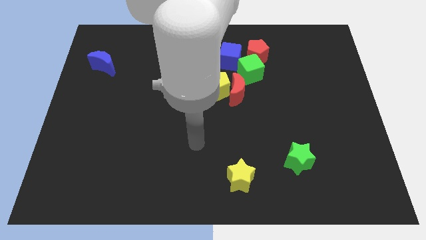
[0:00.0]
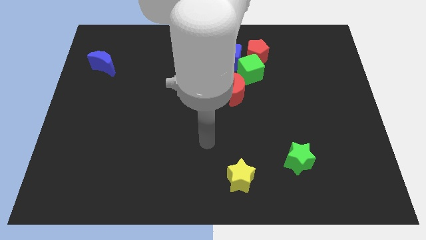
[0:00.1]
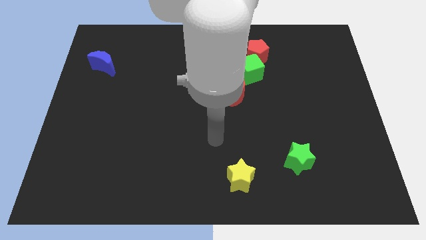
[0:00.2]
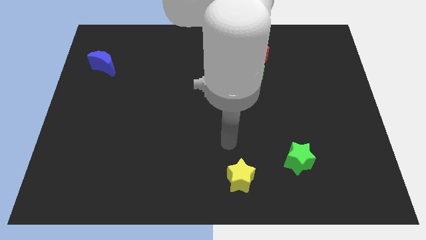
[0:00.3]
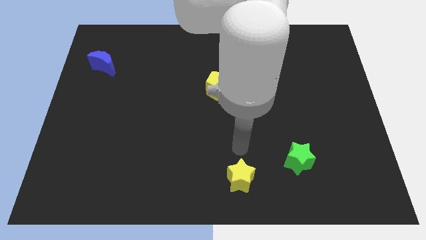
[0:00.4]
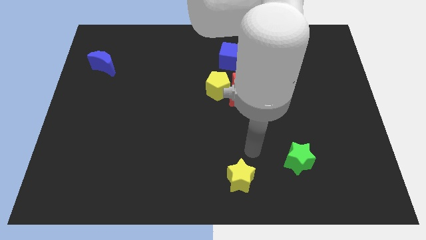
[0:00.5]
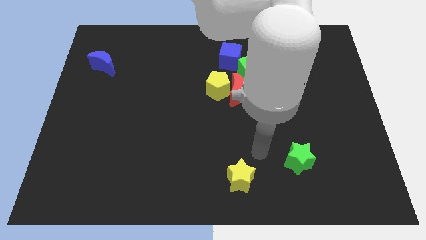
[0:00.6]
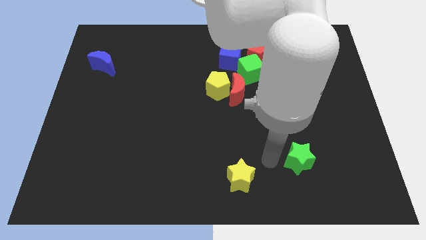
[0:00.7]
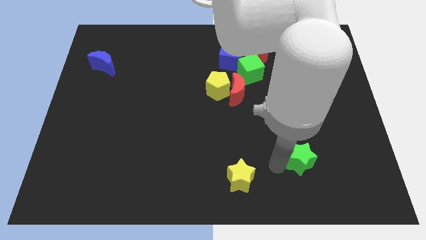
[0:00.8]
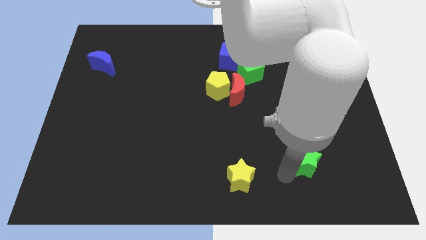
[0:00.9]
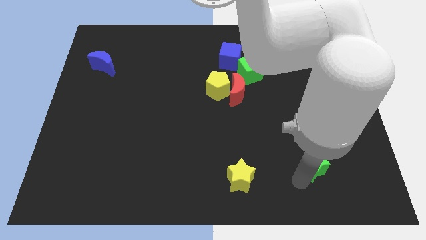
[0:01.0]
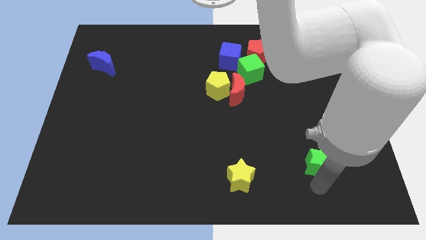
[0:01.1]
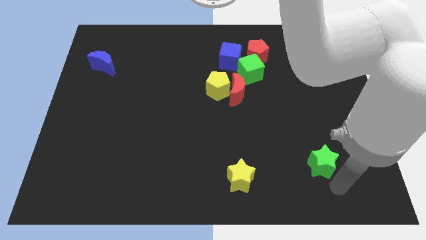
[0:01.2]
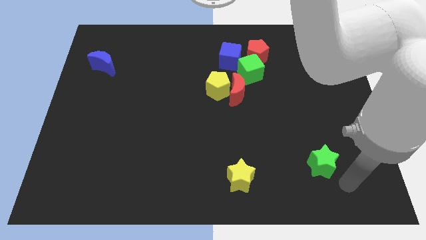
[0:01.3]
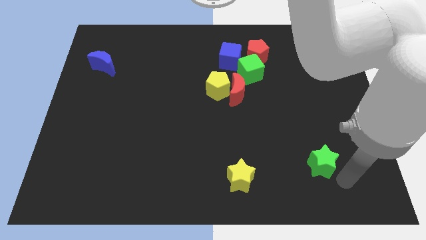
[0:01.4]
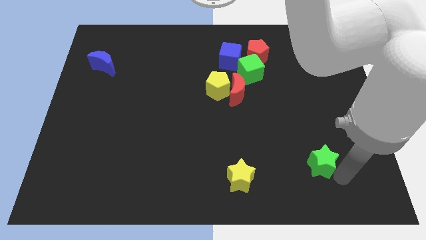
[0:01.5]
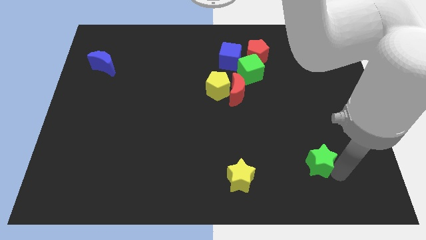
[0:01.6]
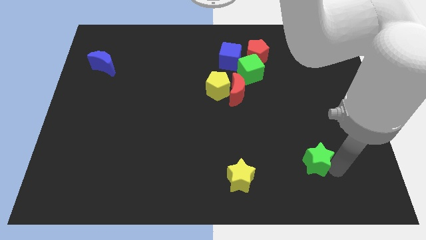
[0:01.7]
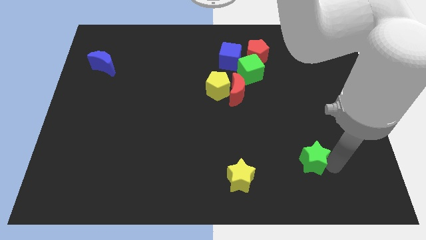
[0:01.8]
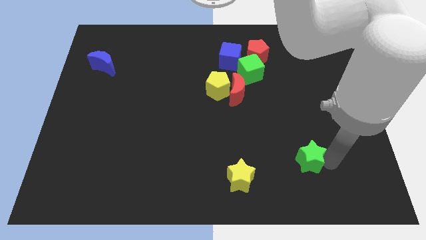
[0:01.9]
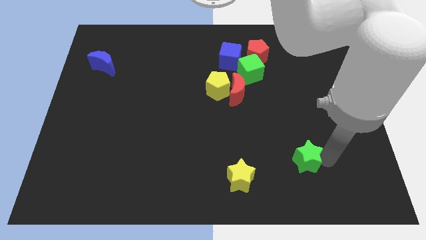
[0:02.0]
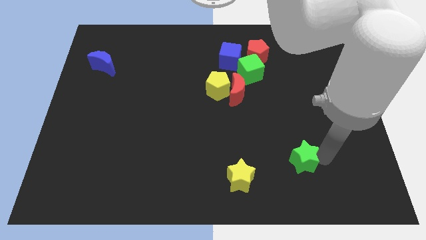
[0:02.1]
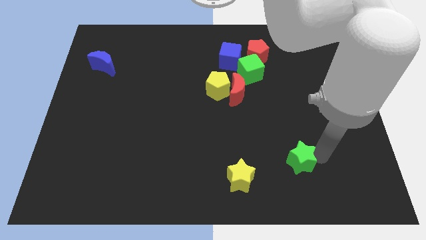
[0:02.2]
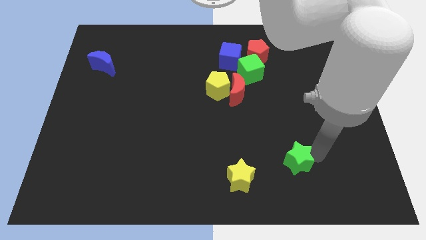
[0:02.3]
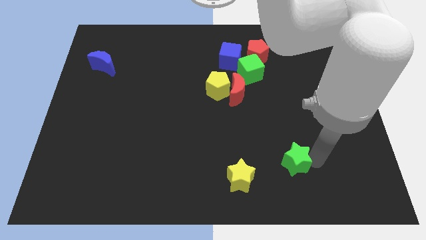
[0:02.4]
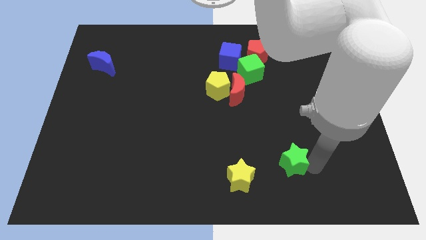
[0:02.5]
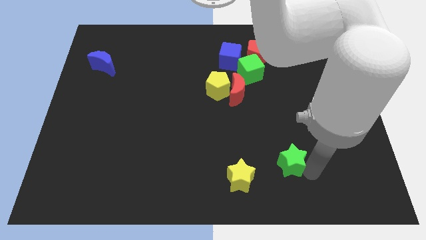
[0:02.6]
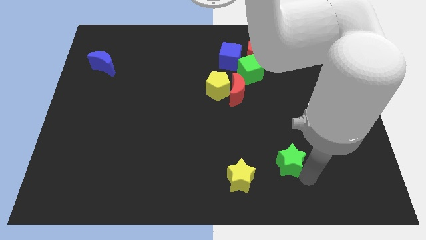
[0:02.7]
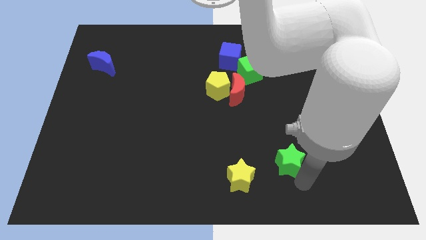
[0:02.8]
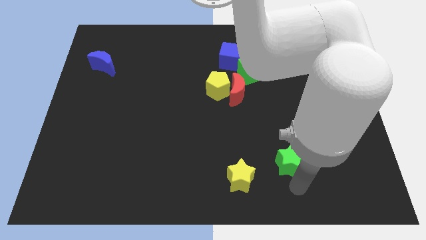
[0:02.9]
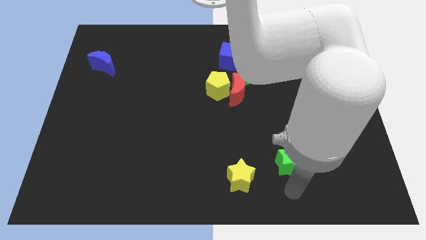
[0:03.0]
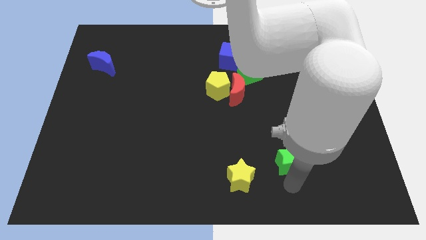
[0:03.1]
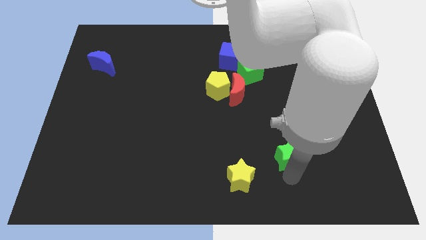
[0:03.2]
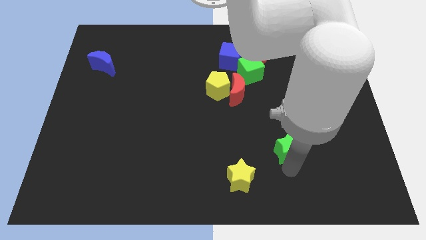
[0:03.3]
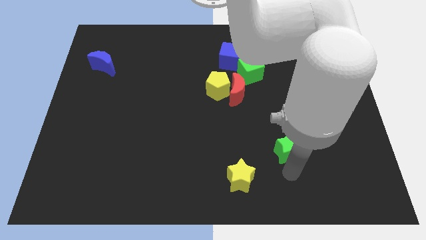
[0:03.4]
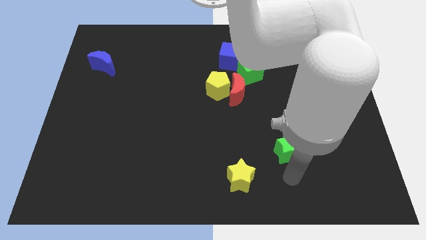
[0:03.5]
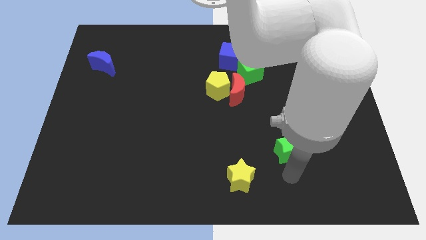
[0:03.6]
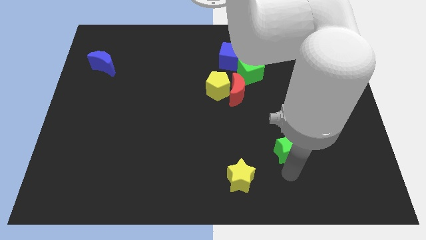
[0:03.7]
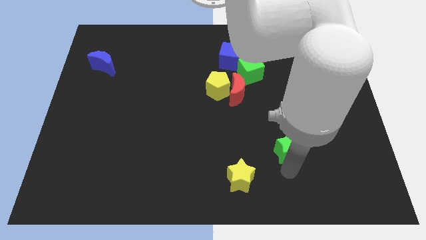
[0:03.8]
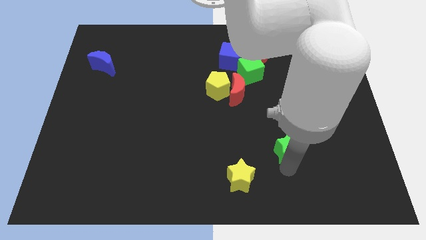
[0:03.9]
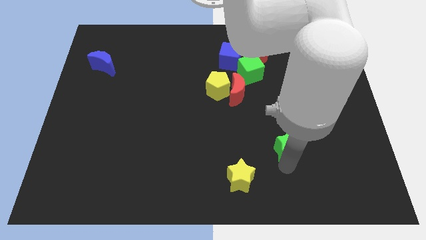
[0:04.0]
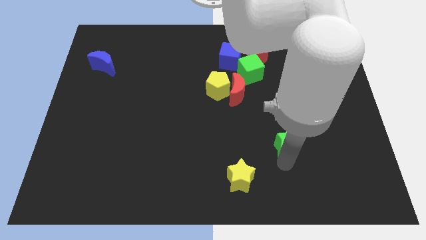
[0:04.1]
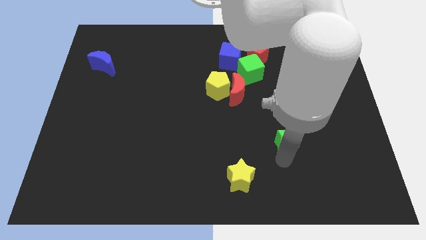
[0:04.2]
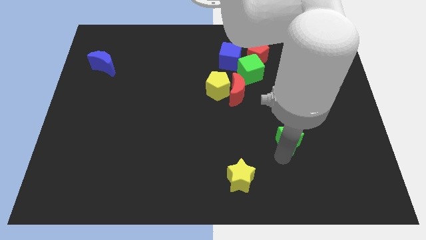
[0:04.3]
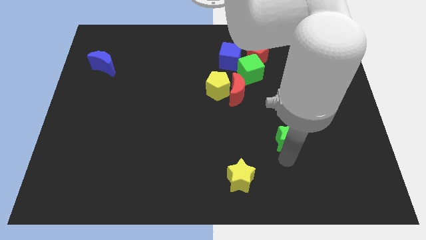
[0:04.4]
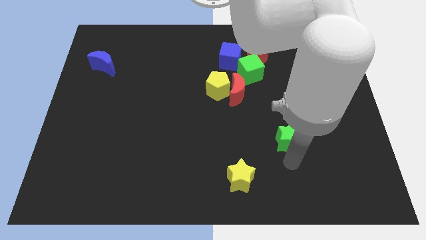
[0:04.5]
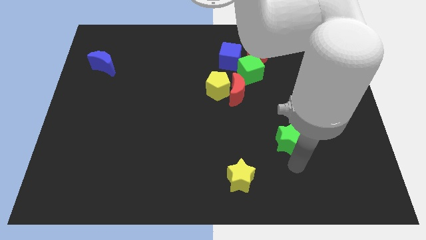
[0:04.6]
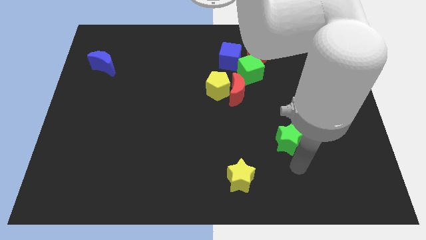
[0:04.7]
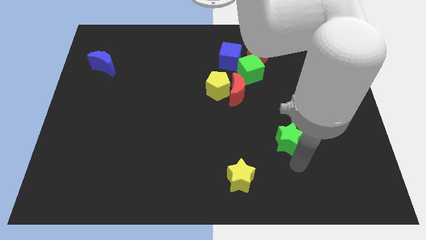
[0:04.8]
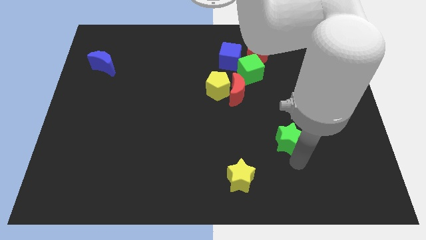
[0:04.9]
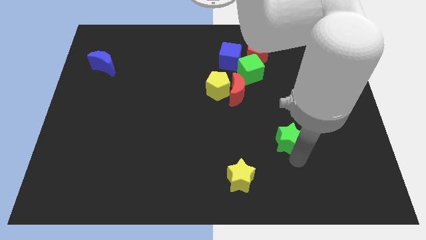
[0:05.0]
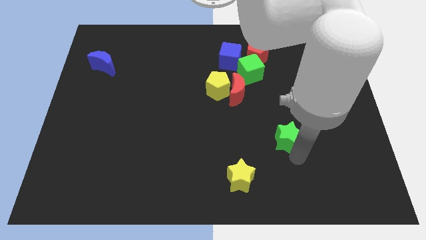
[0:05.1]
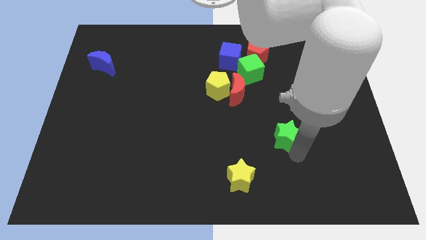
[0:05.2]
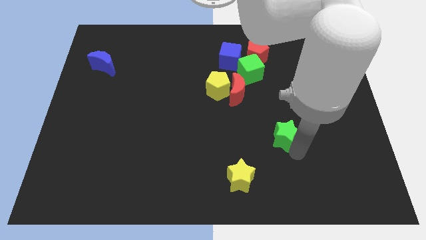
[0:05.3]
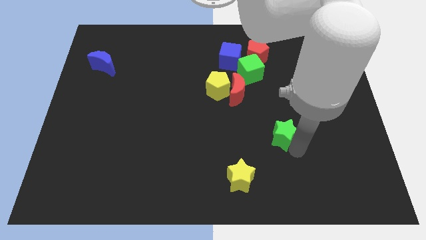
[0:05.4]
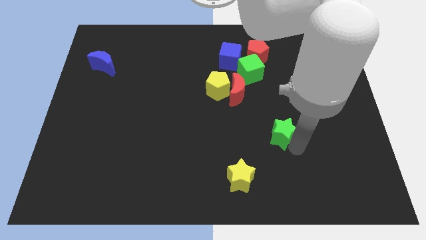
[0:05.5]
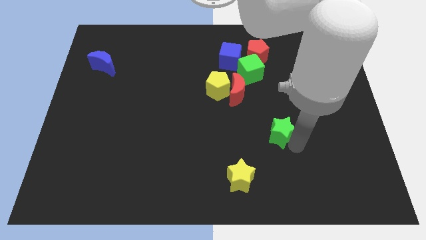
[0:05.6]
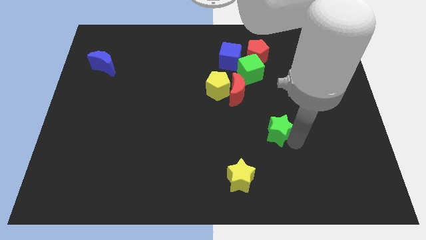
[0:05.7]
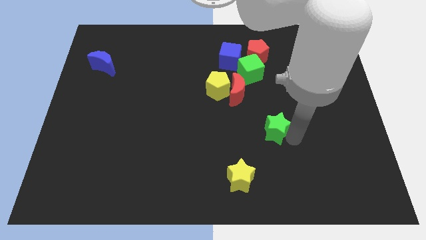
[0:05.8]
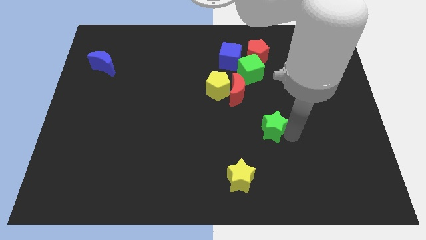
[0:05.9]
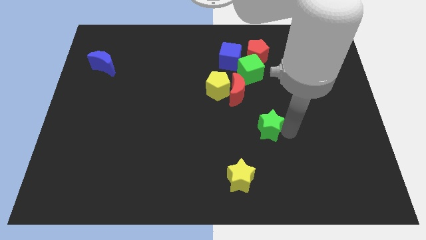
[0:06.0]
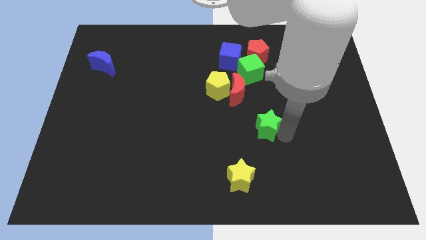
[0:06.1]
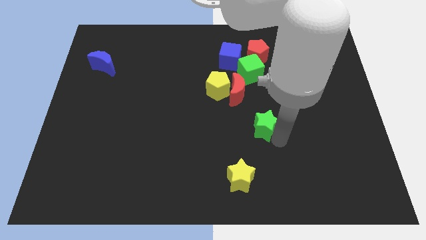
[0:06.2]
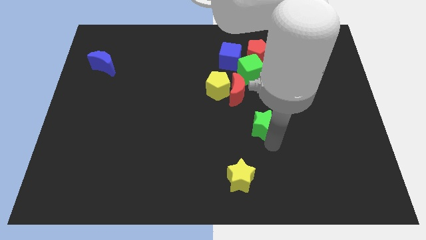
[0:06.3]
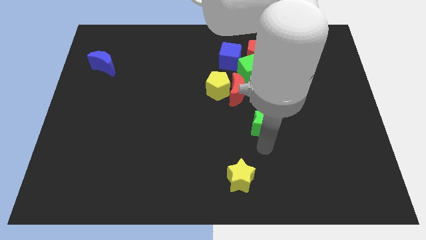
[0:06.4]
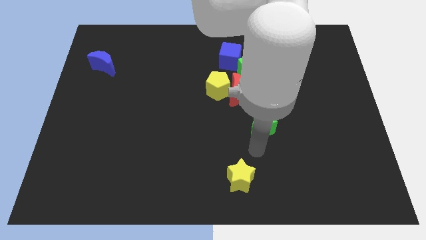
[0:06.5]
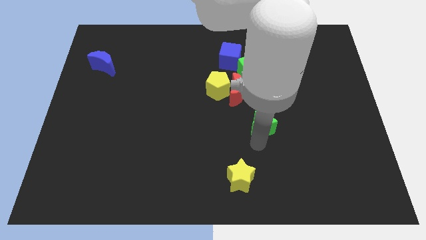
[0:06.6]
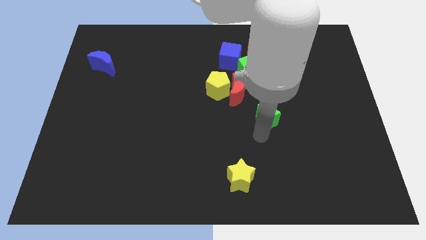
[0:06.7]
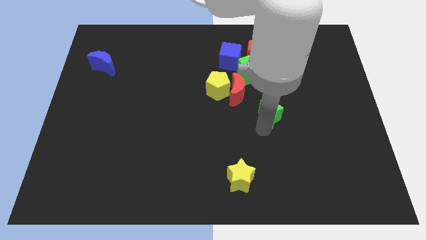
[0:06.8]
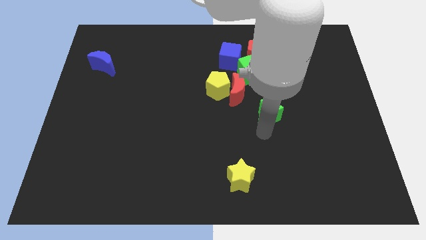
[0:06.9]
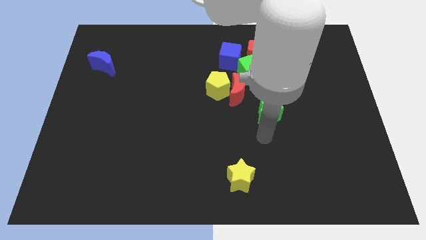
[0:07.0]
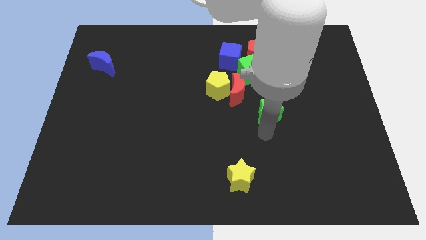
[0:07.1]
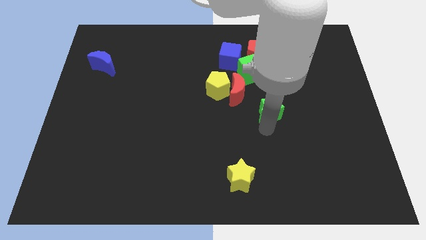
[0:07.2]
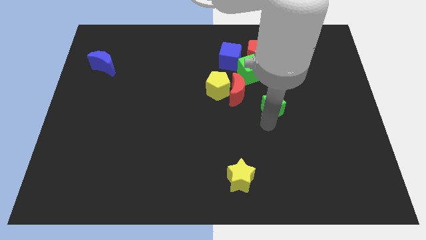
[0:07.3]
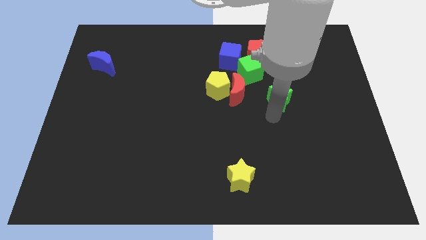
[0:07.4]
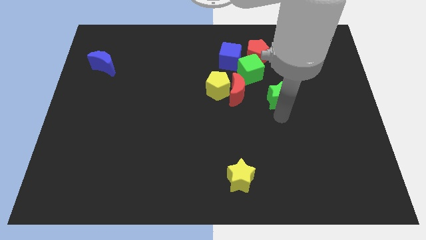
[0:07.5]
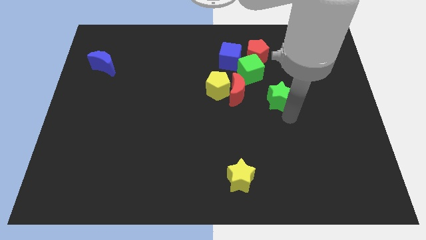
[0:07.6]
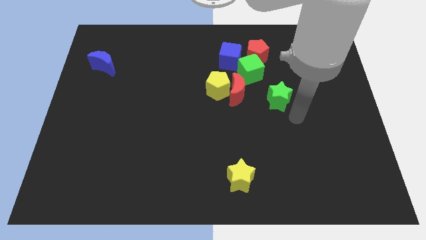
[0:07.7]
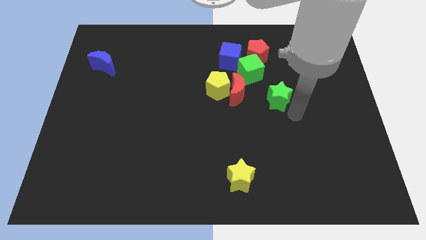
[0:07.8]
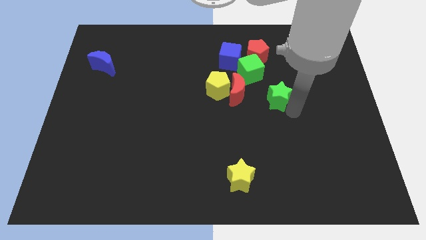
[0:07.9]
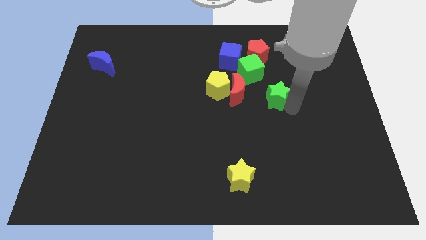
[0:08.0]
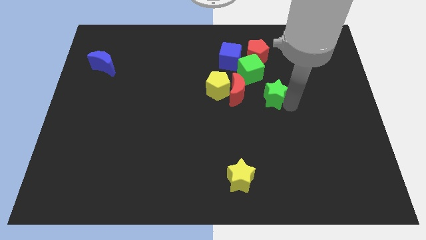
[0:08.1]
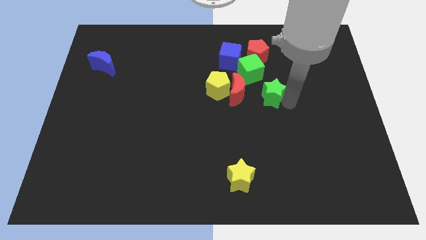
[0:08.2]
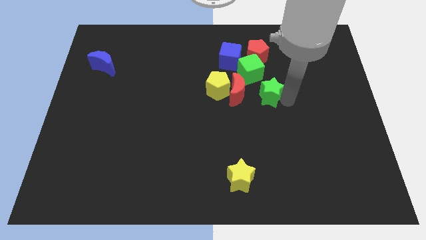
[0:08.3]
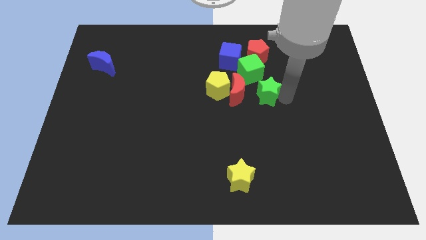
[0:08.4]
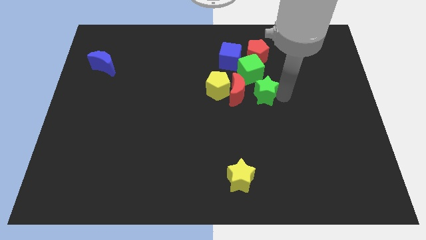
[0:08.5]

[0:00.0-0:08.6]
put the green star to the top right of the red moon
